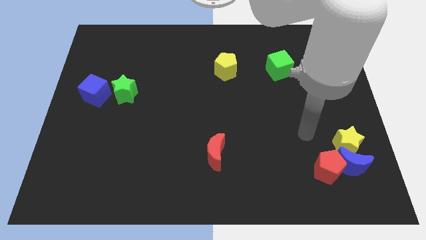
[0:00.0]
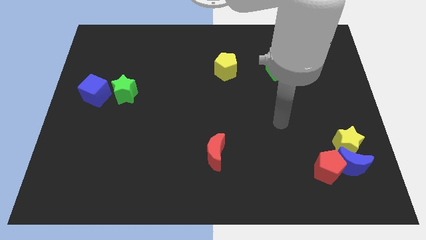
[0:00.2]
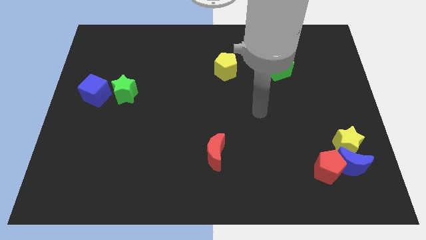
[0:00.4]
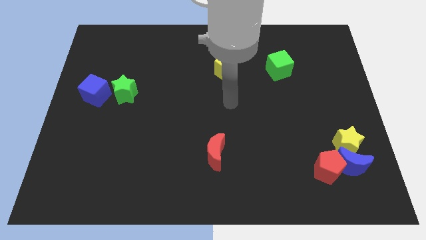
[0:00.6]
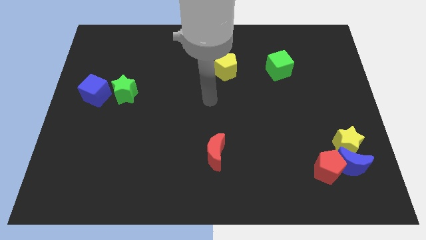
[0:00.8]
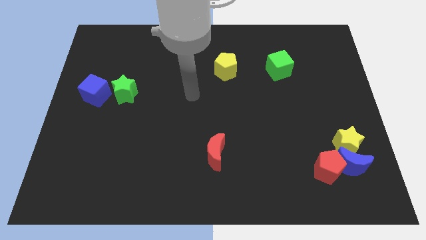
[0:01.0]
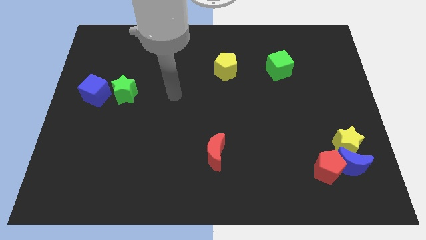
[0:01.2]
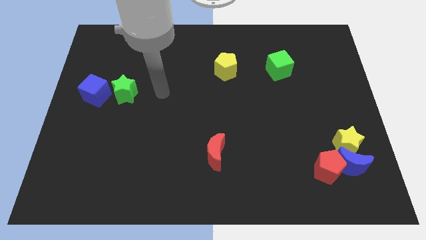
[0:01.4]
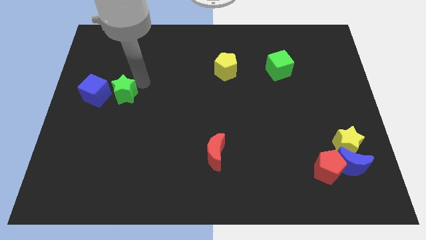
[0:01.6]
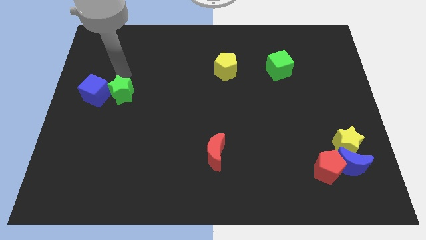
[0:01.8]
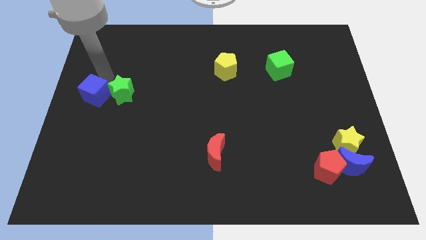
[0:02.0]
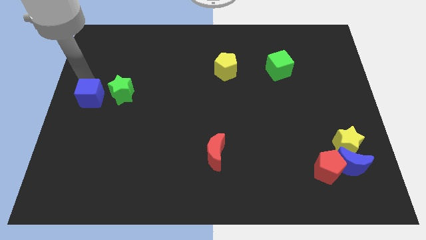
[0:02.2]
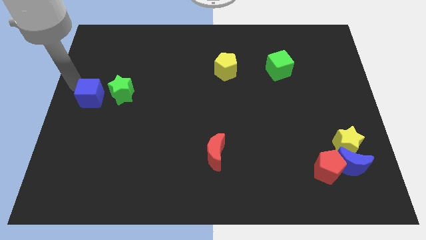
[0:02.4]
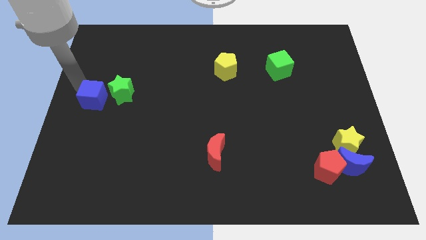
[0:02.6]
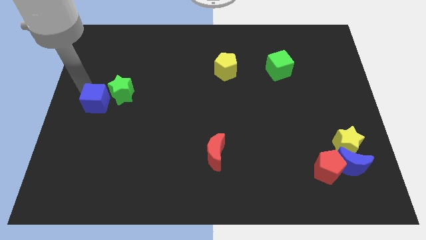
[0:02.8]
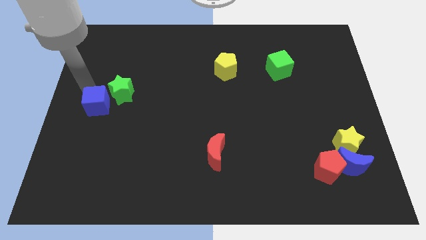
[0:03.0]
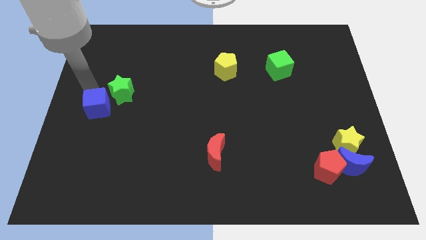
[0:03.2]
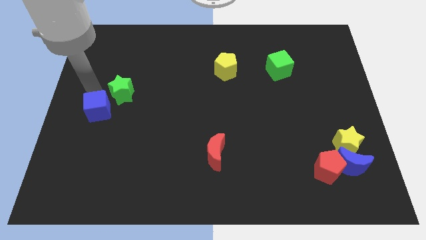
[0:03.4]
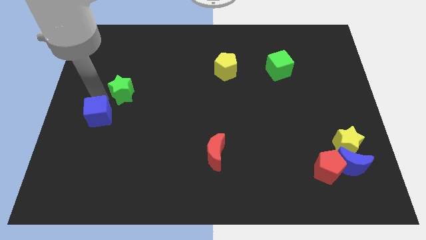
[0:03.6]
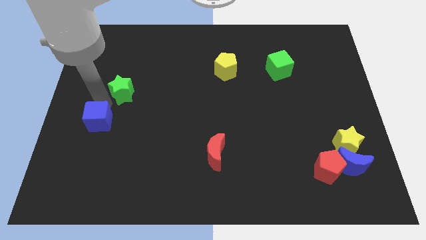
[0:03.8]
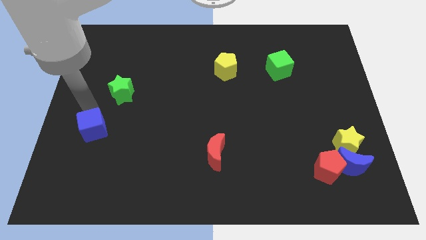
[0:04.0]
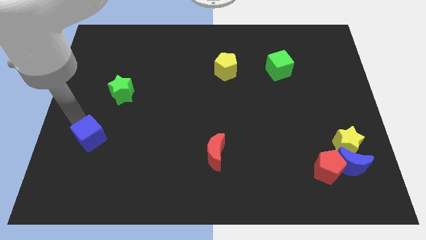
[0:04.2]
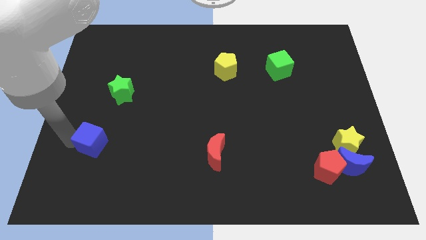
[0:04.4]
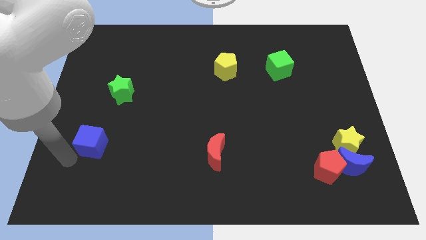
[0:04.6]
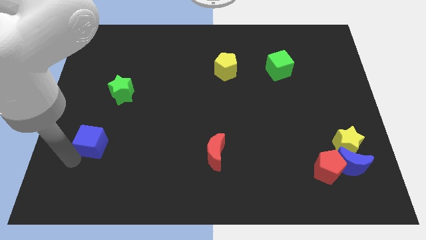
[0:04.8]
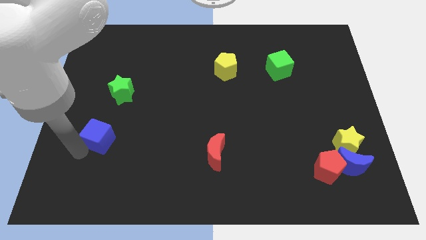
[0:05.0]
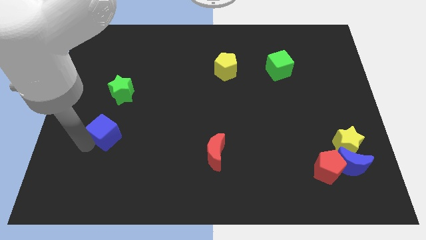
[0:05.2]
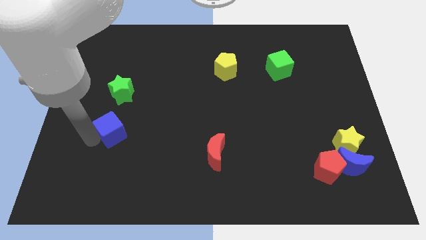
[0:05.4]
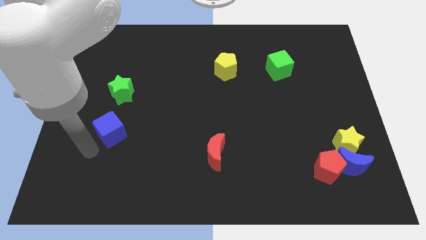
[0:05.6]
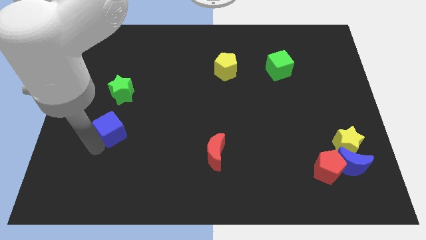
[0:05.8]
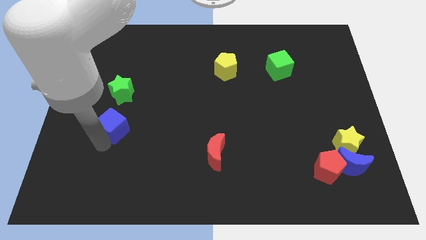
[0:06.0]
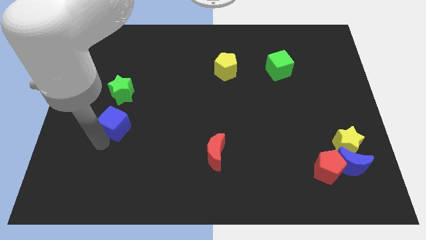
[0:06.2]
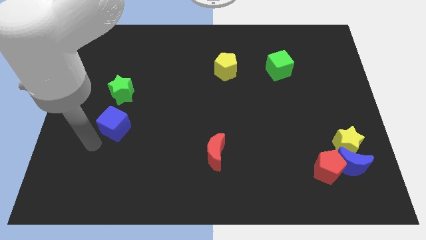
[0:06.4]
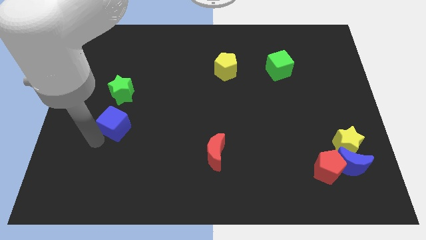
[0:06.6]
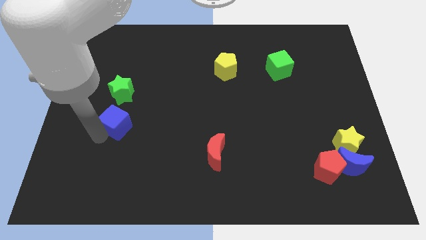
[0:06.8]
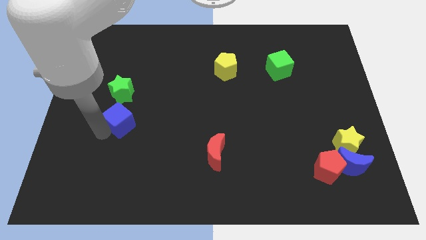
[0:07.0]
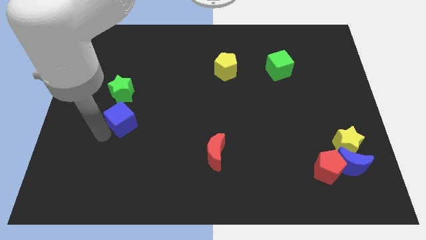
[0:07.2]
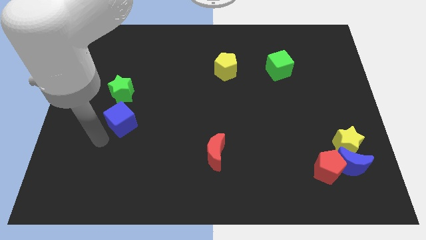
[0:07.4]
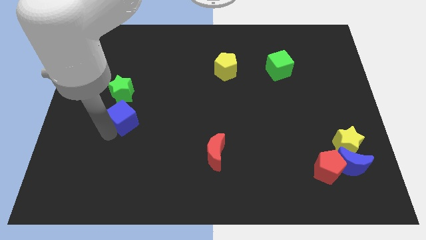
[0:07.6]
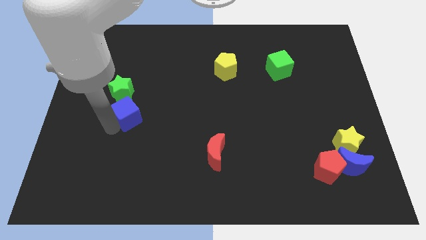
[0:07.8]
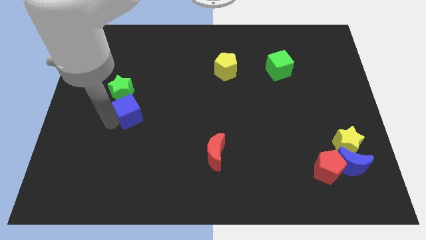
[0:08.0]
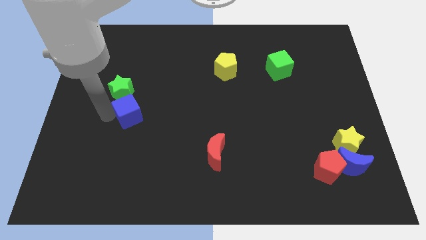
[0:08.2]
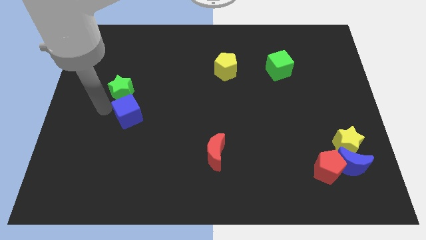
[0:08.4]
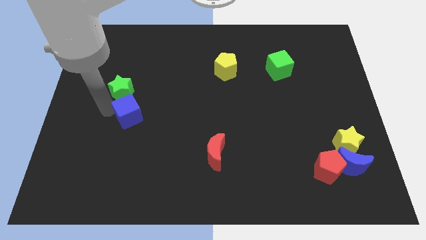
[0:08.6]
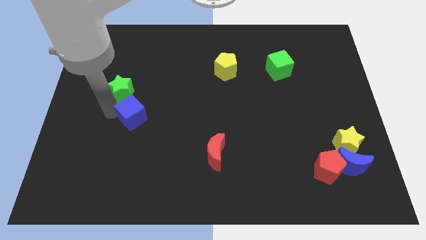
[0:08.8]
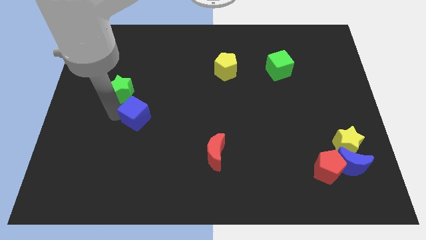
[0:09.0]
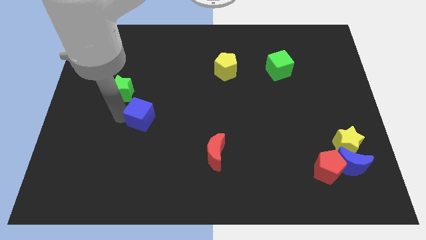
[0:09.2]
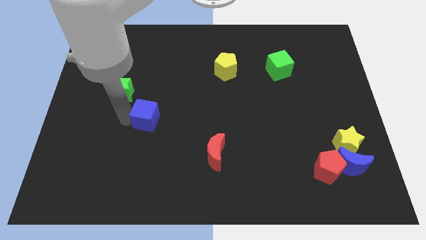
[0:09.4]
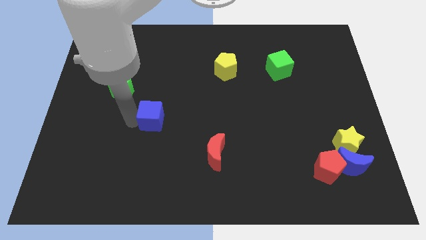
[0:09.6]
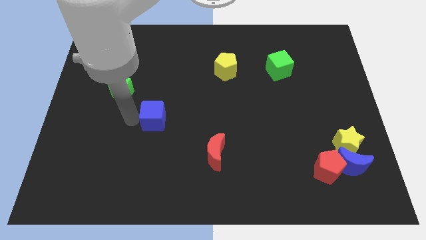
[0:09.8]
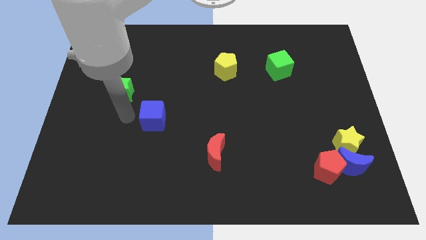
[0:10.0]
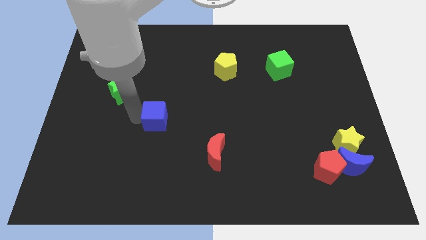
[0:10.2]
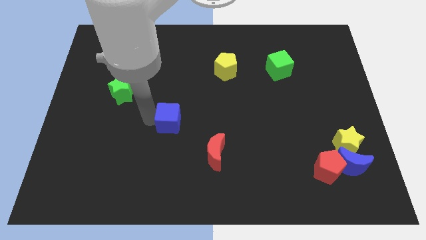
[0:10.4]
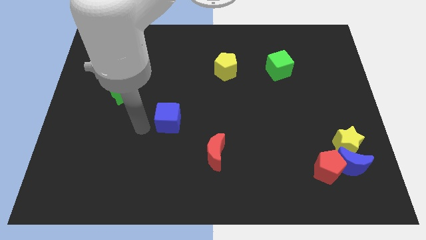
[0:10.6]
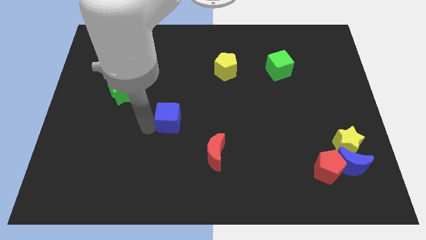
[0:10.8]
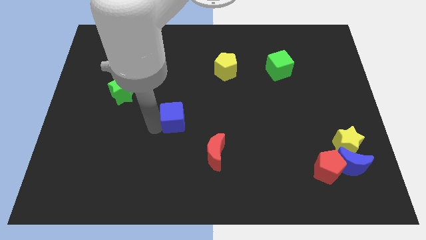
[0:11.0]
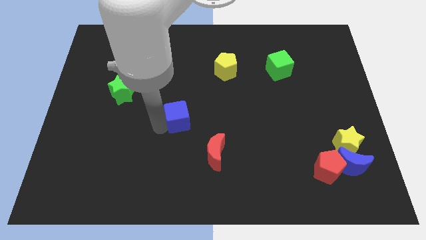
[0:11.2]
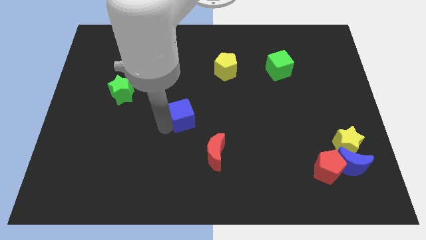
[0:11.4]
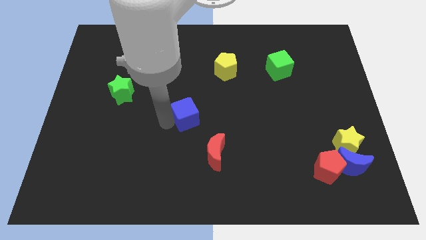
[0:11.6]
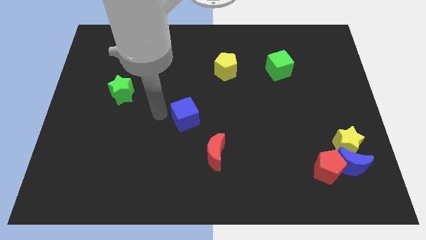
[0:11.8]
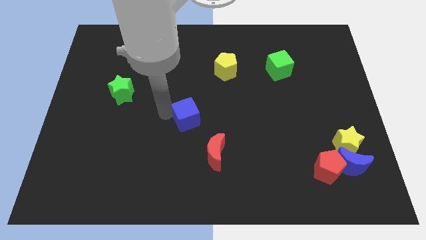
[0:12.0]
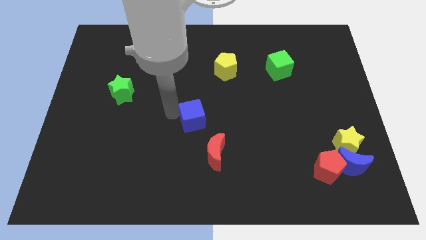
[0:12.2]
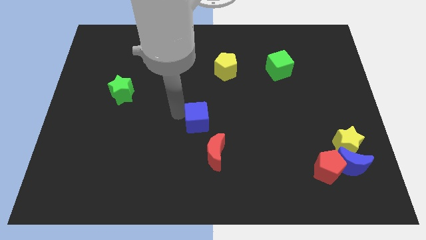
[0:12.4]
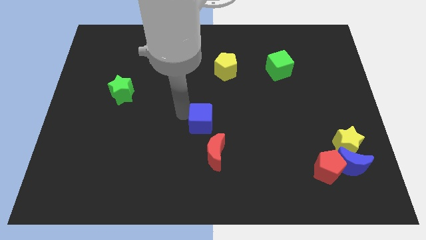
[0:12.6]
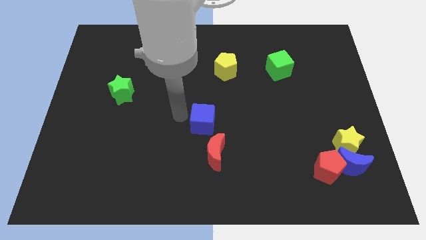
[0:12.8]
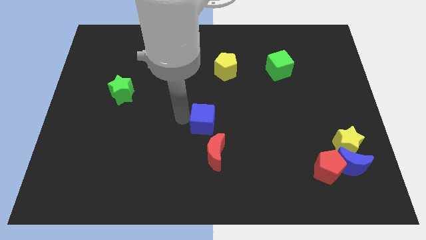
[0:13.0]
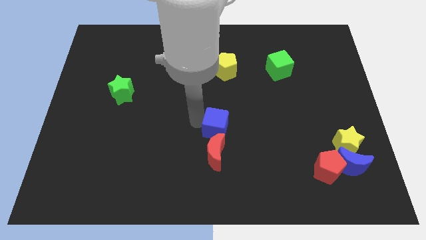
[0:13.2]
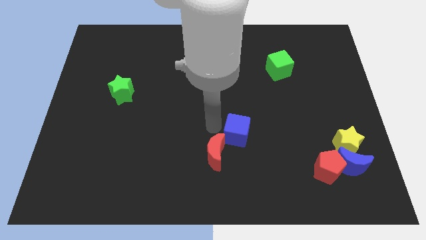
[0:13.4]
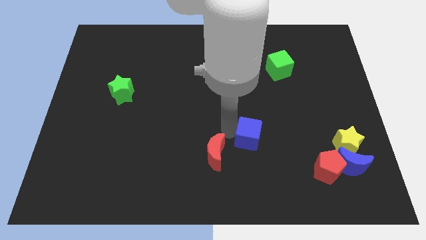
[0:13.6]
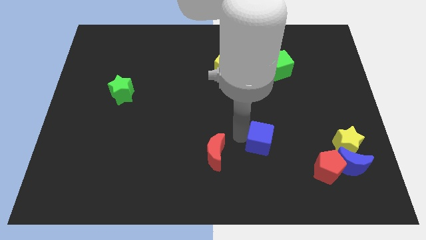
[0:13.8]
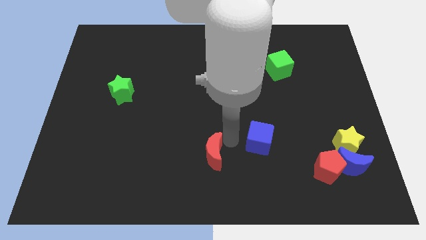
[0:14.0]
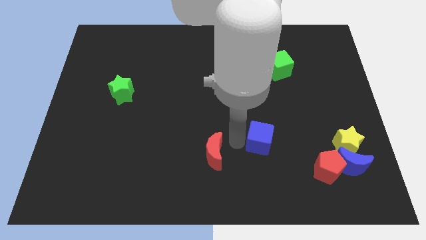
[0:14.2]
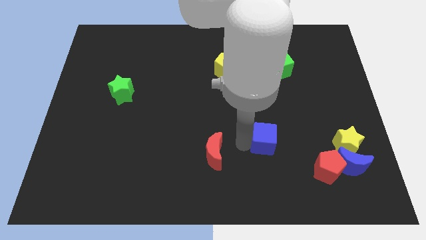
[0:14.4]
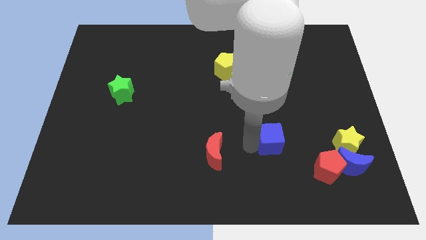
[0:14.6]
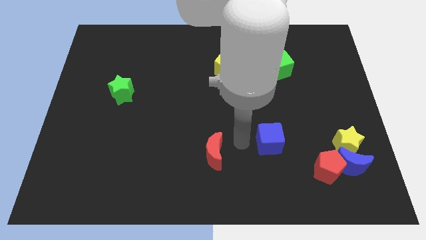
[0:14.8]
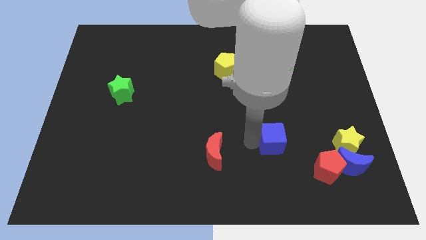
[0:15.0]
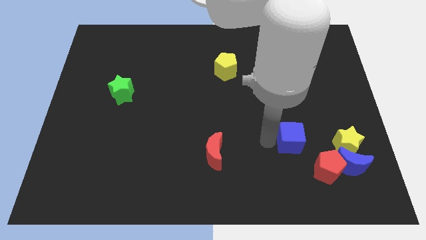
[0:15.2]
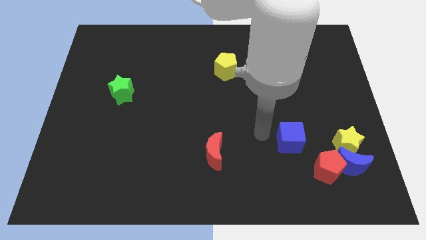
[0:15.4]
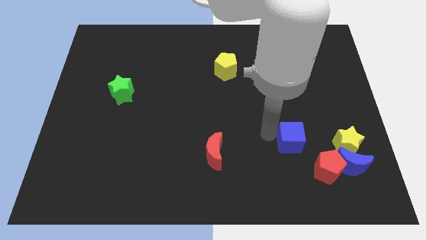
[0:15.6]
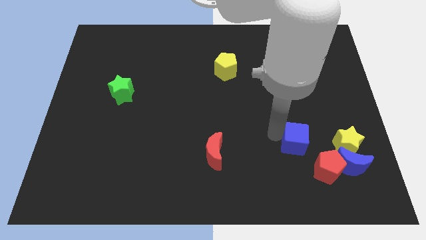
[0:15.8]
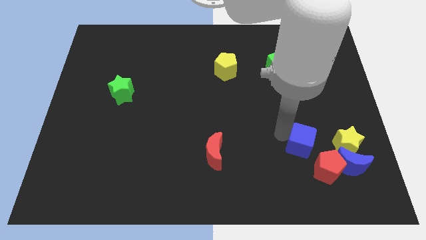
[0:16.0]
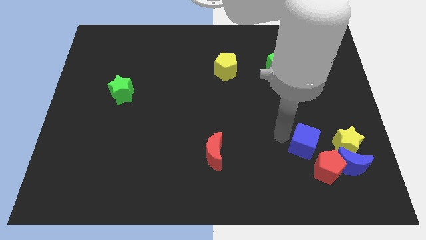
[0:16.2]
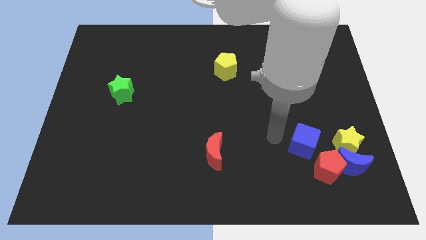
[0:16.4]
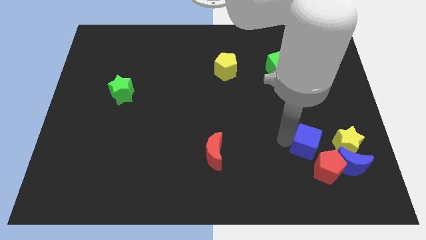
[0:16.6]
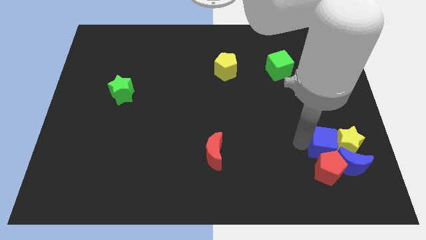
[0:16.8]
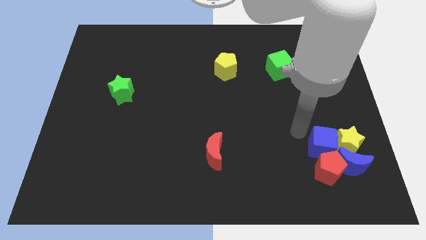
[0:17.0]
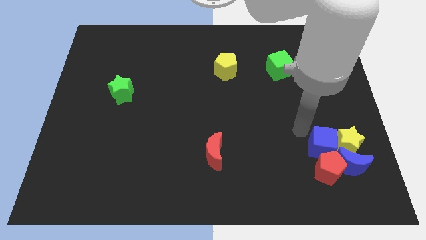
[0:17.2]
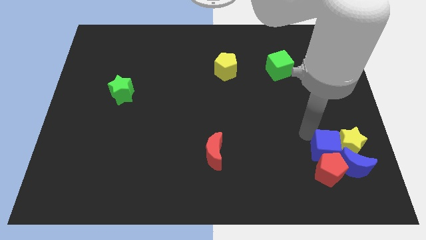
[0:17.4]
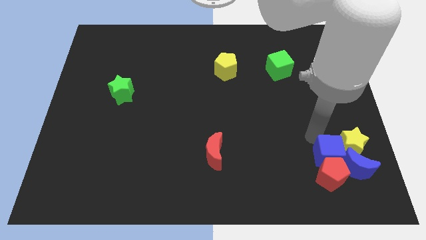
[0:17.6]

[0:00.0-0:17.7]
put the blue cube next to the blue moon
